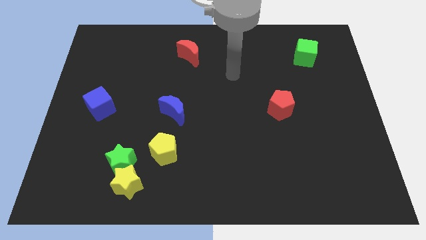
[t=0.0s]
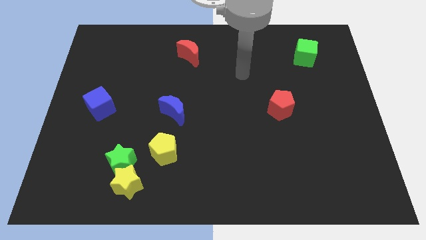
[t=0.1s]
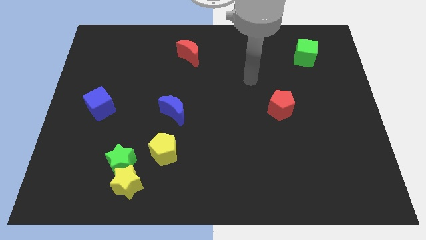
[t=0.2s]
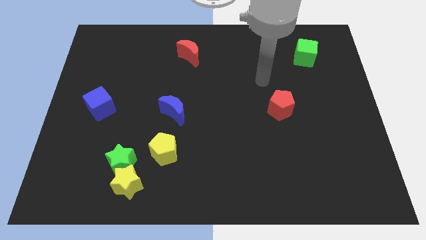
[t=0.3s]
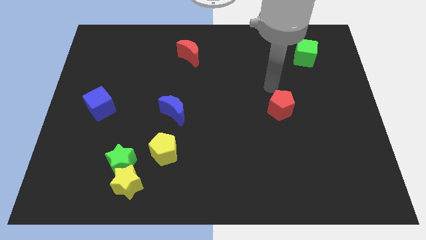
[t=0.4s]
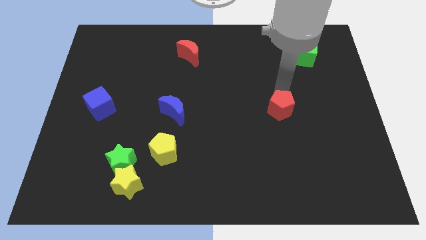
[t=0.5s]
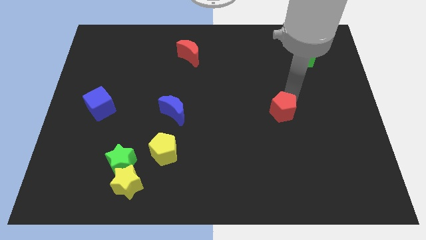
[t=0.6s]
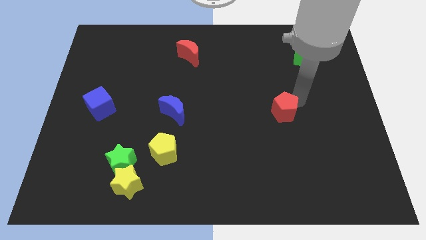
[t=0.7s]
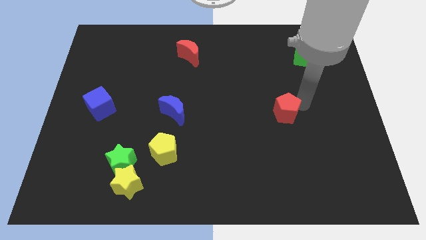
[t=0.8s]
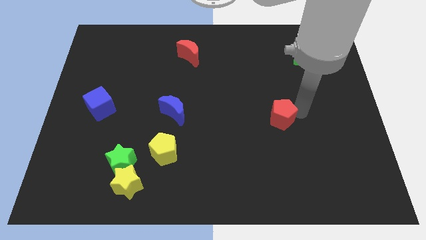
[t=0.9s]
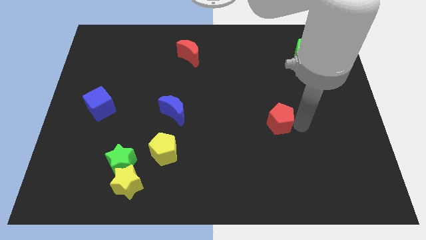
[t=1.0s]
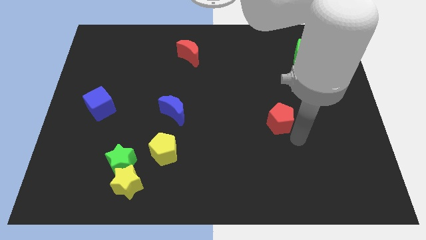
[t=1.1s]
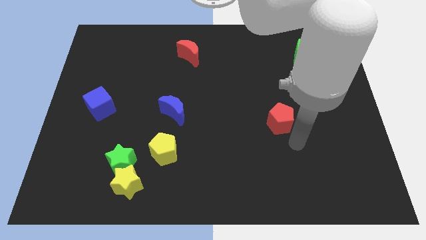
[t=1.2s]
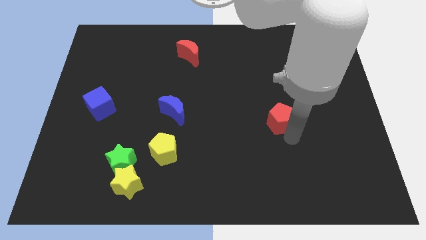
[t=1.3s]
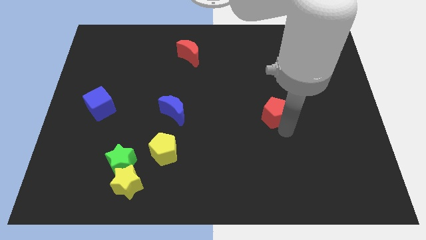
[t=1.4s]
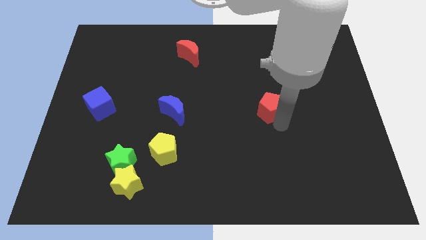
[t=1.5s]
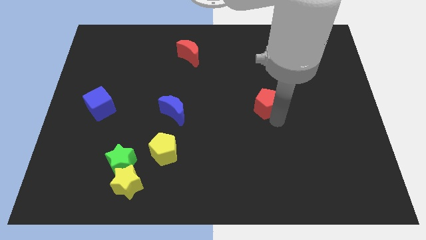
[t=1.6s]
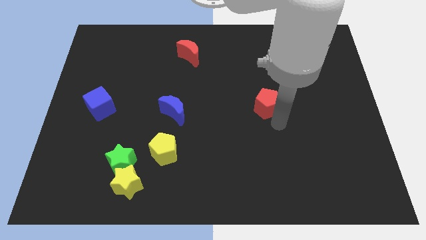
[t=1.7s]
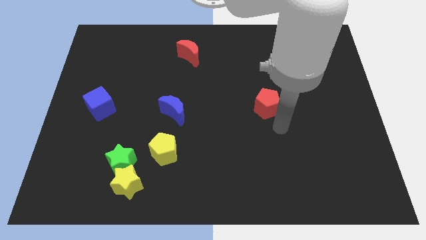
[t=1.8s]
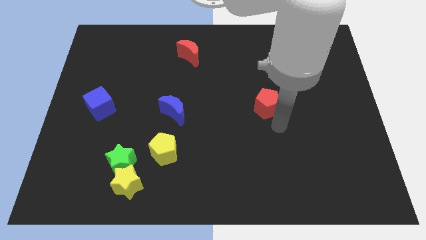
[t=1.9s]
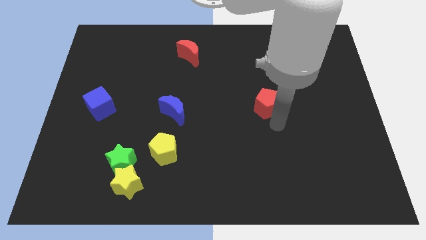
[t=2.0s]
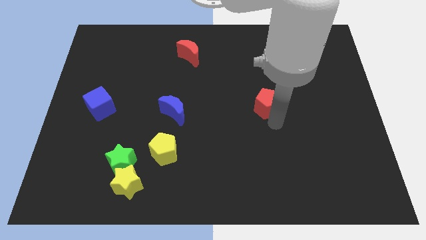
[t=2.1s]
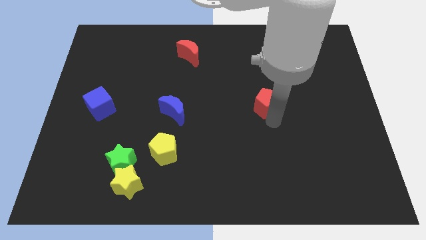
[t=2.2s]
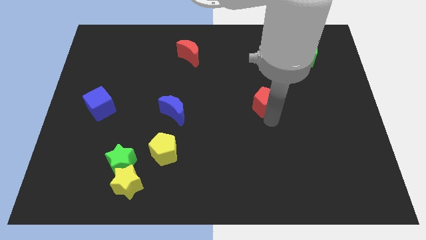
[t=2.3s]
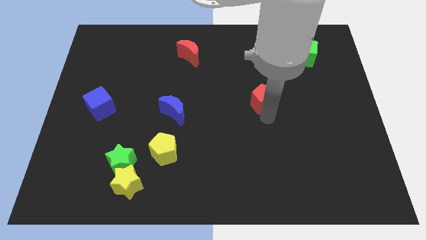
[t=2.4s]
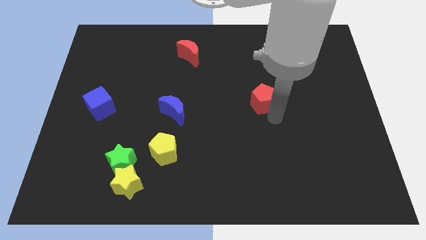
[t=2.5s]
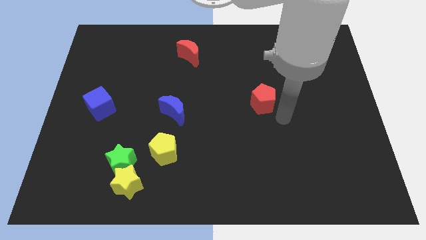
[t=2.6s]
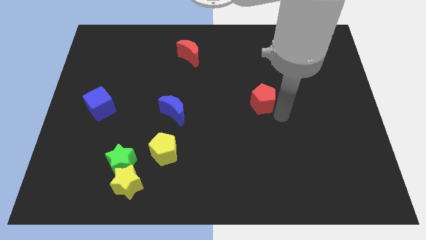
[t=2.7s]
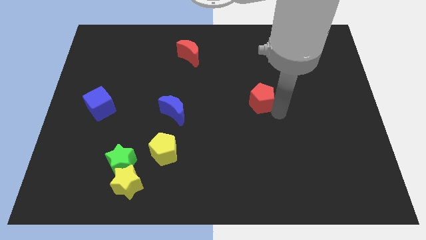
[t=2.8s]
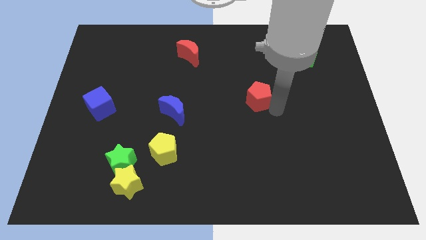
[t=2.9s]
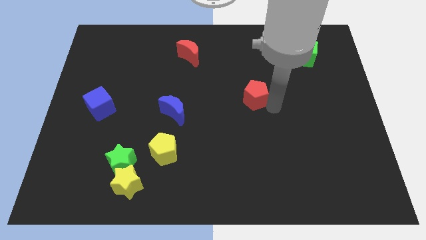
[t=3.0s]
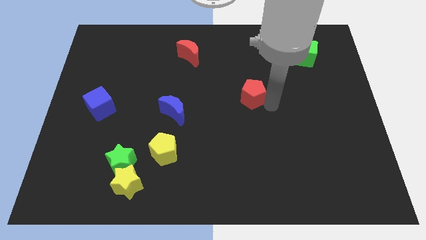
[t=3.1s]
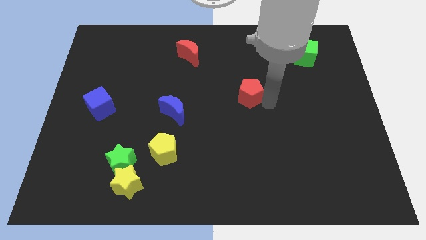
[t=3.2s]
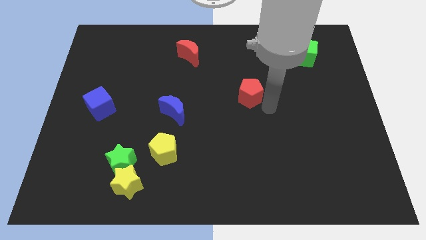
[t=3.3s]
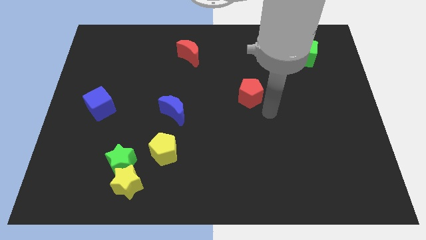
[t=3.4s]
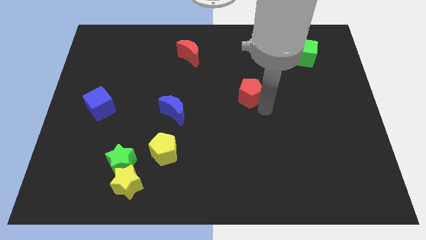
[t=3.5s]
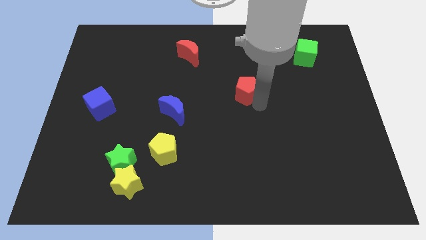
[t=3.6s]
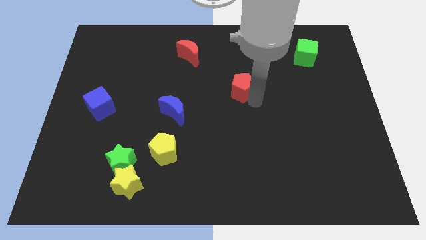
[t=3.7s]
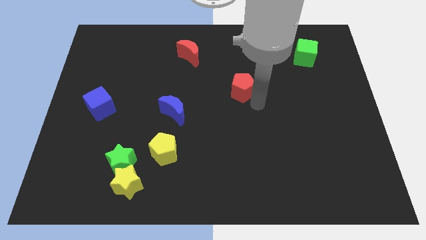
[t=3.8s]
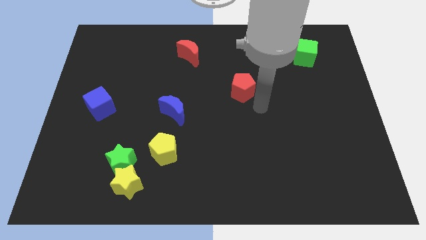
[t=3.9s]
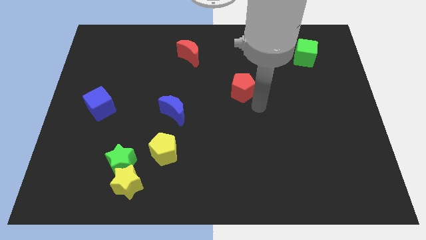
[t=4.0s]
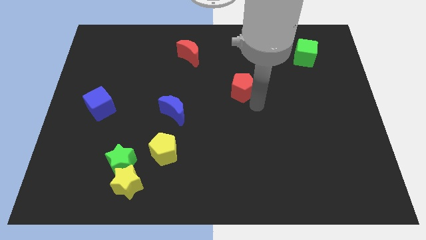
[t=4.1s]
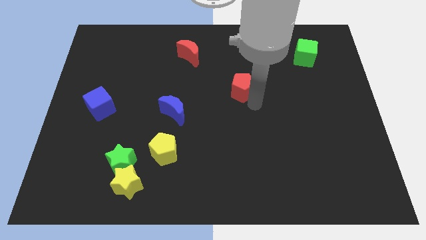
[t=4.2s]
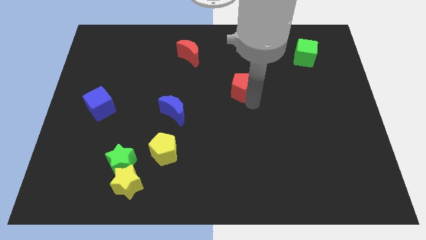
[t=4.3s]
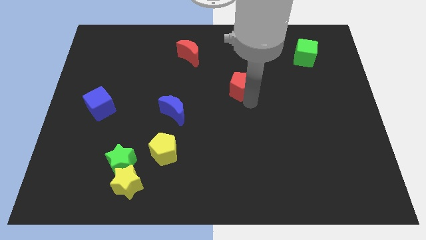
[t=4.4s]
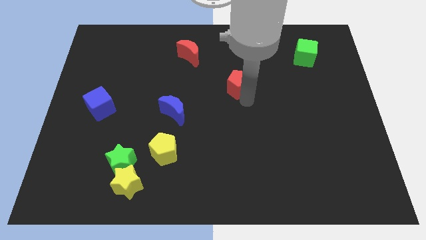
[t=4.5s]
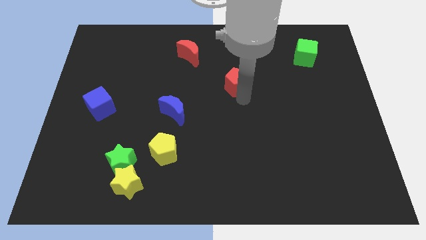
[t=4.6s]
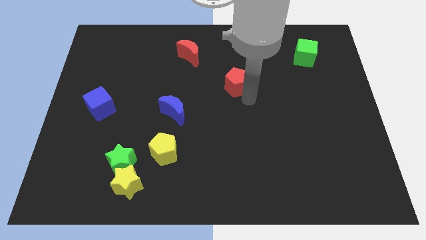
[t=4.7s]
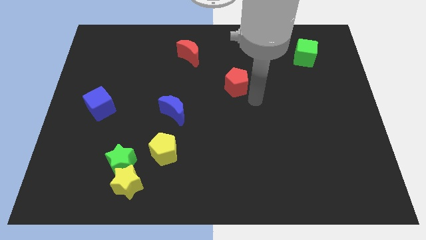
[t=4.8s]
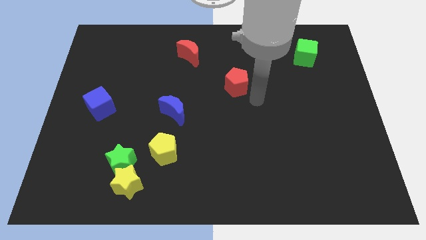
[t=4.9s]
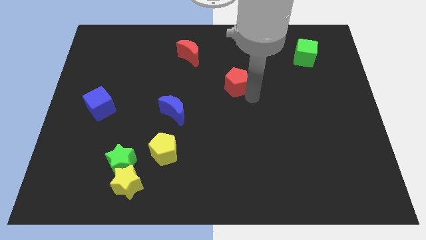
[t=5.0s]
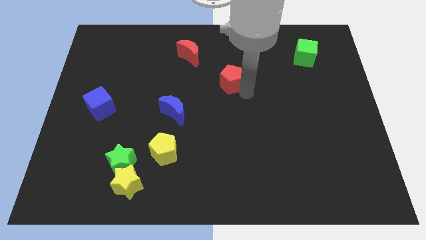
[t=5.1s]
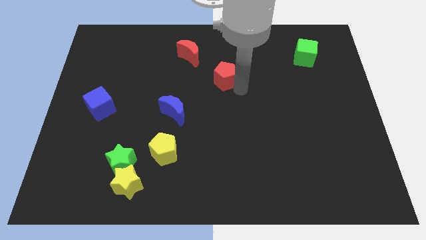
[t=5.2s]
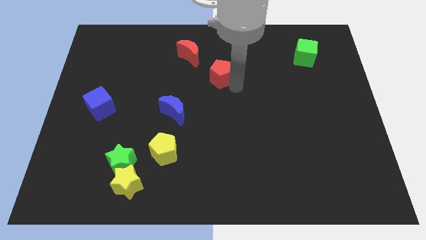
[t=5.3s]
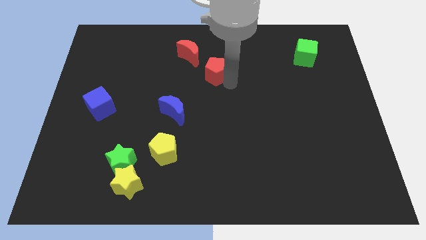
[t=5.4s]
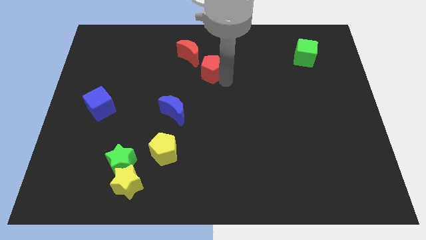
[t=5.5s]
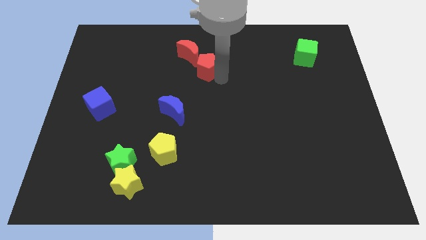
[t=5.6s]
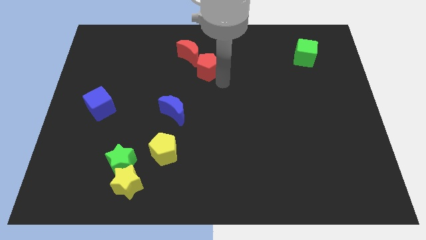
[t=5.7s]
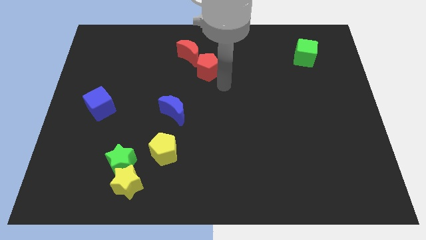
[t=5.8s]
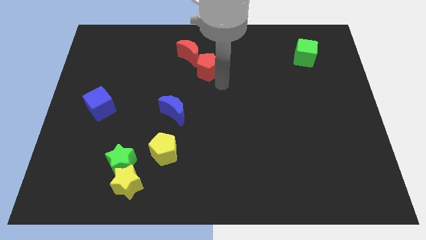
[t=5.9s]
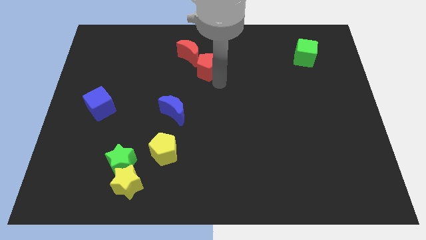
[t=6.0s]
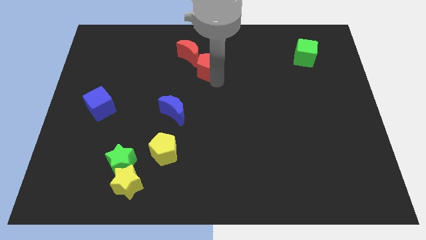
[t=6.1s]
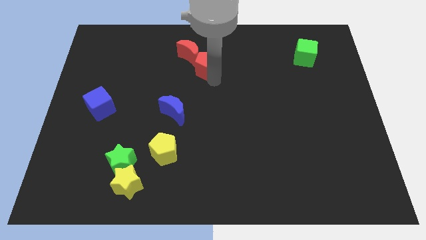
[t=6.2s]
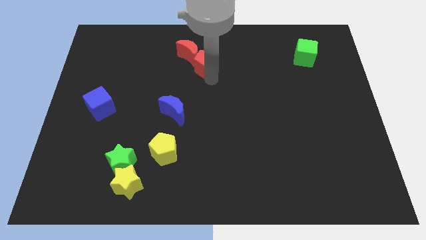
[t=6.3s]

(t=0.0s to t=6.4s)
push the red pentagon next to the red moon
